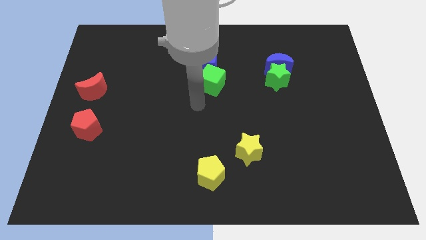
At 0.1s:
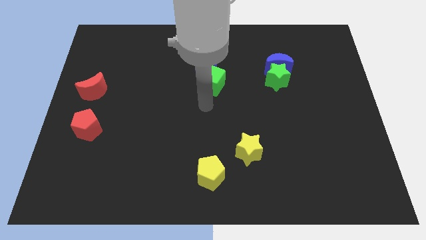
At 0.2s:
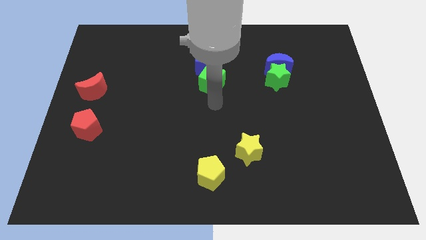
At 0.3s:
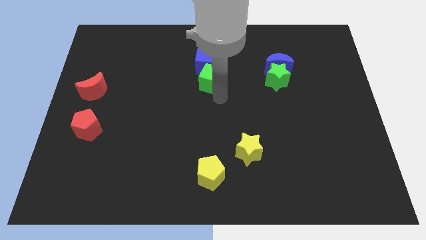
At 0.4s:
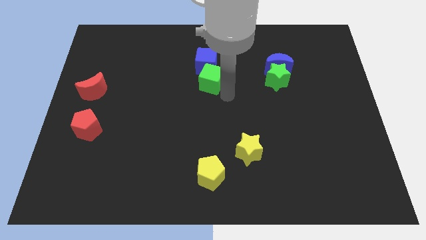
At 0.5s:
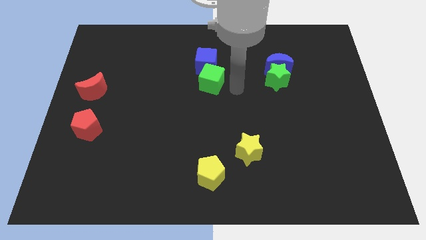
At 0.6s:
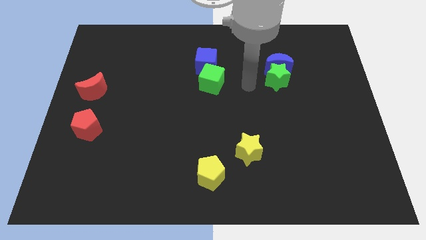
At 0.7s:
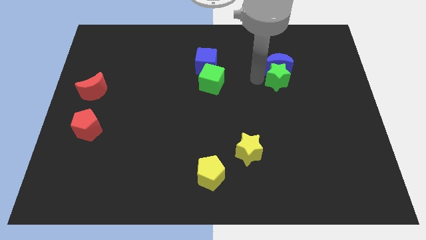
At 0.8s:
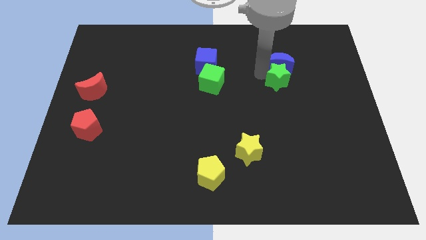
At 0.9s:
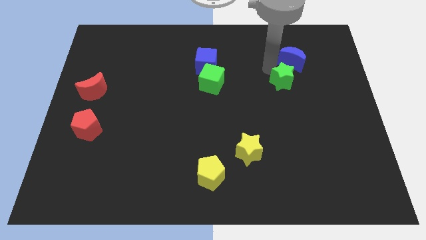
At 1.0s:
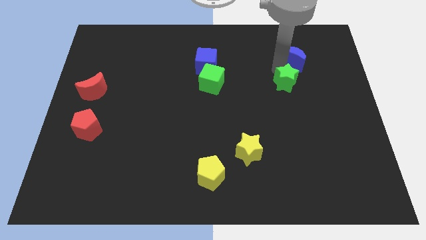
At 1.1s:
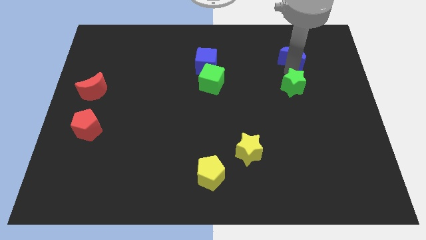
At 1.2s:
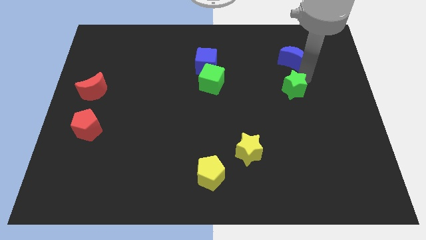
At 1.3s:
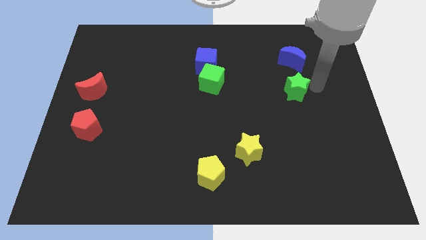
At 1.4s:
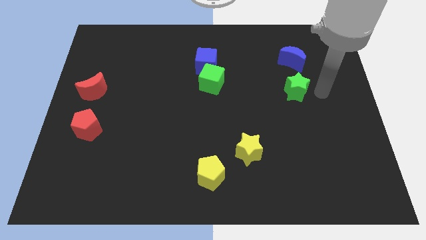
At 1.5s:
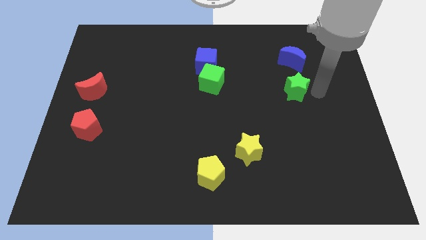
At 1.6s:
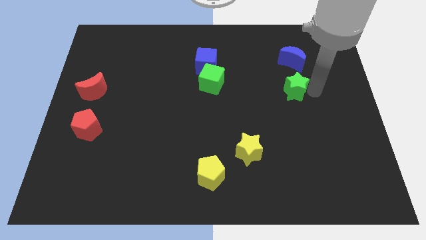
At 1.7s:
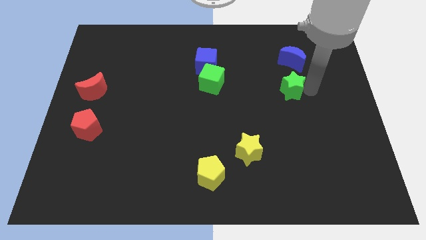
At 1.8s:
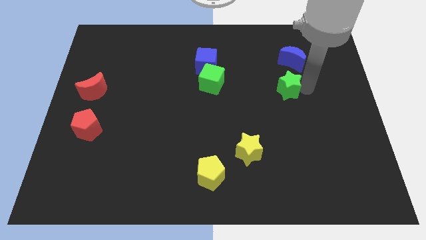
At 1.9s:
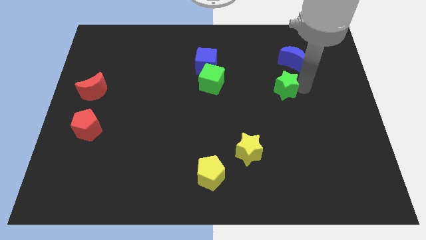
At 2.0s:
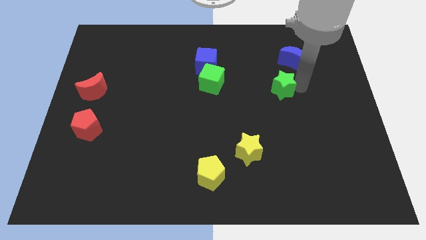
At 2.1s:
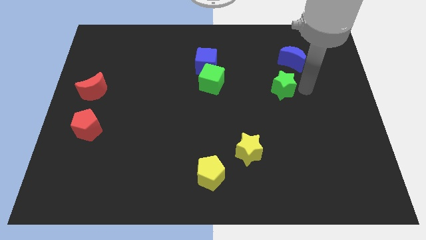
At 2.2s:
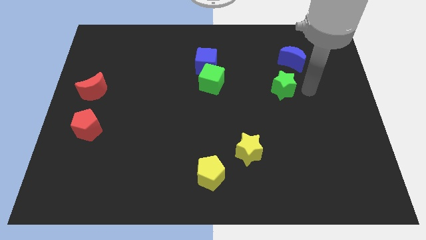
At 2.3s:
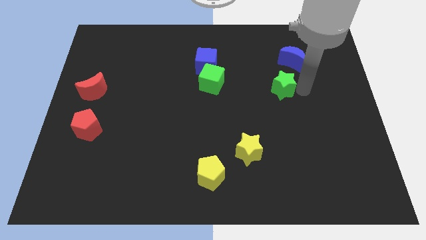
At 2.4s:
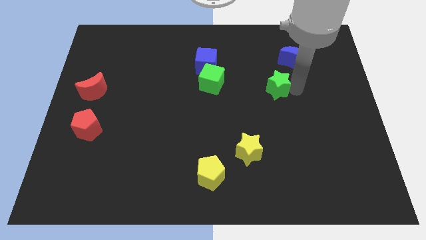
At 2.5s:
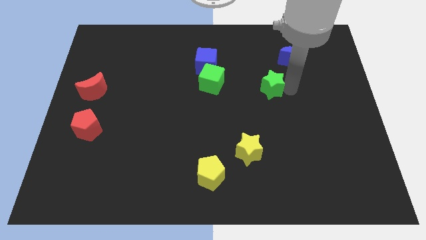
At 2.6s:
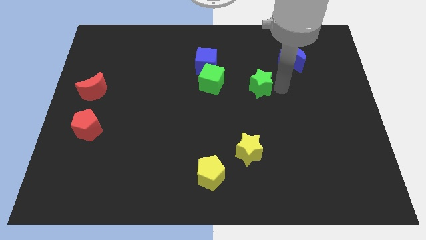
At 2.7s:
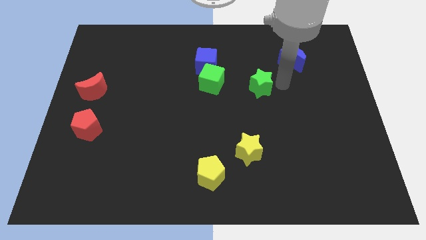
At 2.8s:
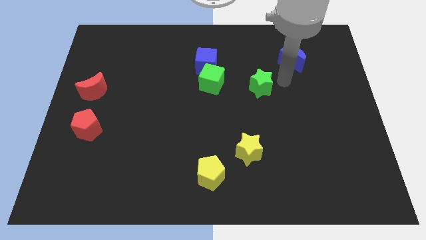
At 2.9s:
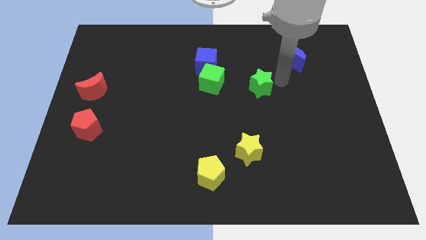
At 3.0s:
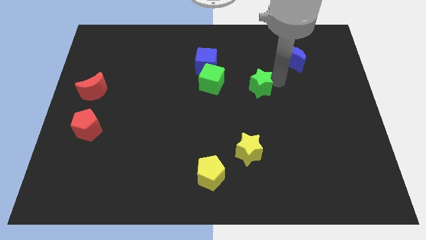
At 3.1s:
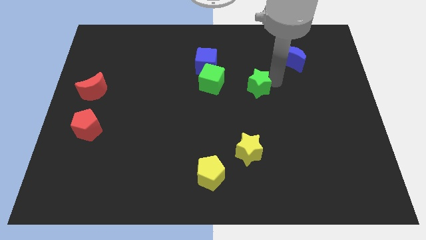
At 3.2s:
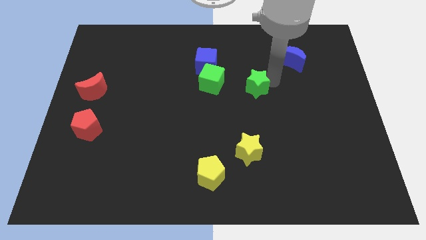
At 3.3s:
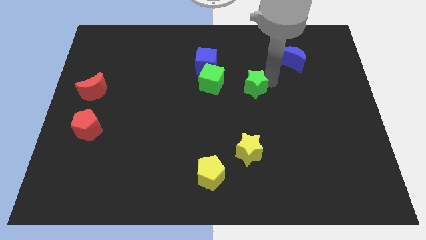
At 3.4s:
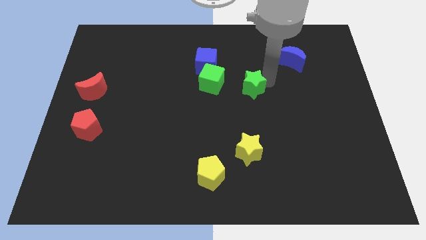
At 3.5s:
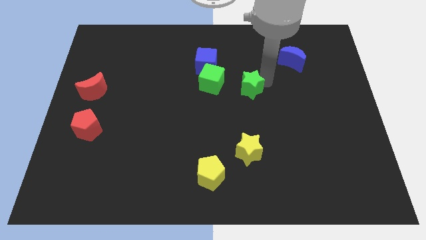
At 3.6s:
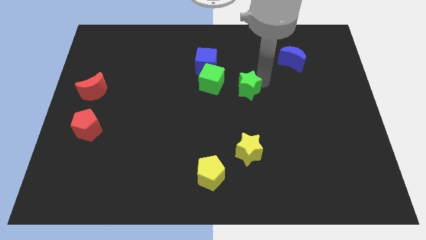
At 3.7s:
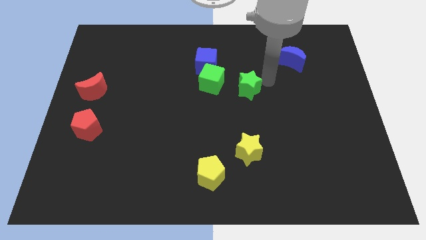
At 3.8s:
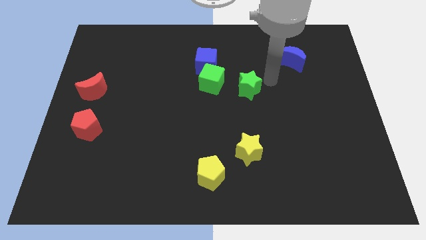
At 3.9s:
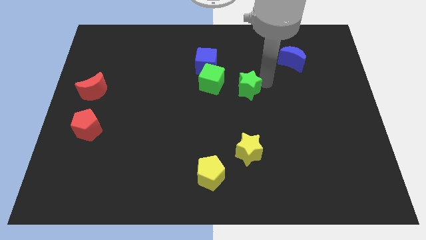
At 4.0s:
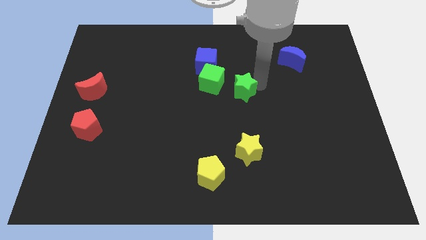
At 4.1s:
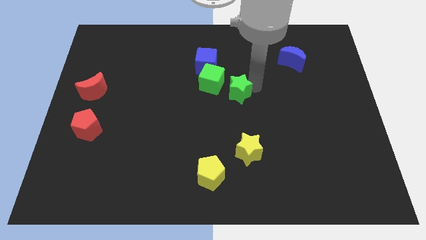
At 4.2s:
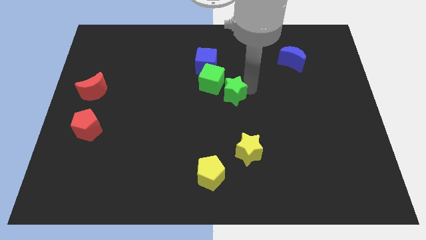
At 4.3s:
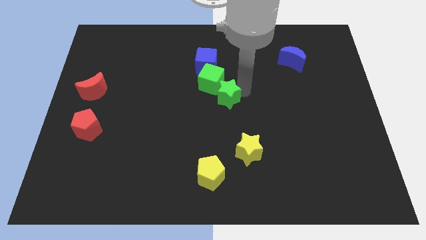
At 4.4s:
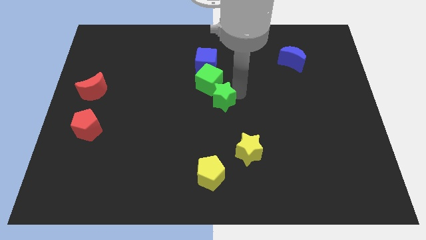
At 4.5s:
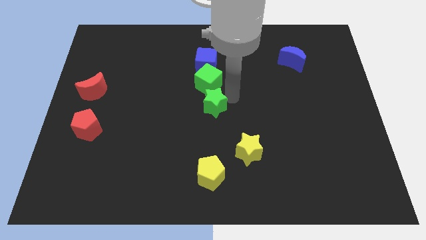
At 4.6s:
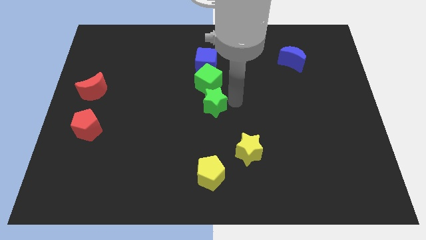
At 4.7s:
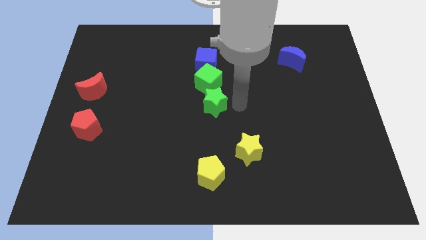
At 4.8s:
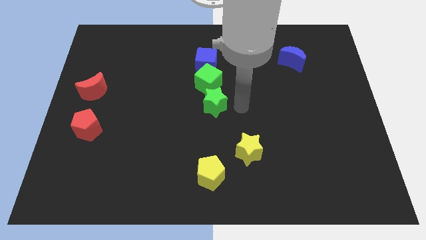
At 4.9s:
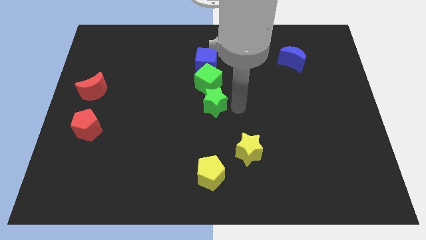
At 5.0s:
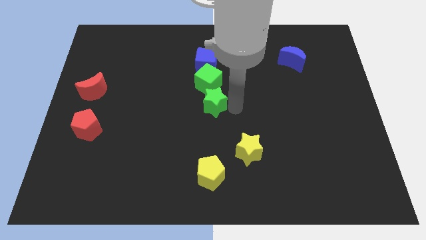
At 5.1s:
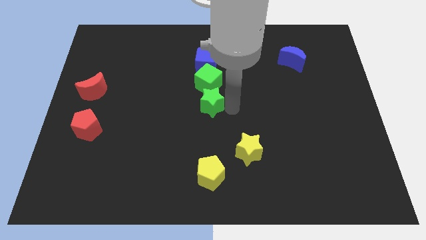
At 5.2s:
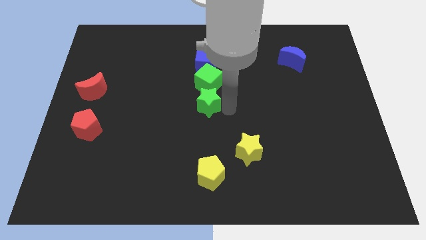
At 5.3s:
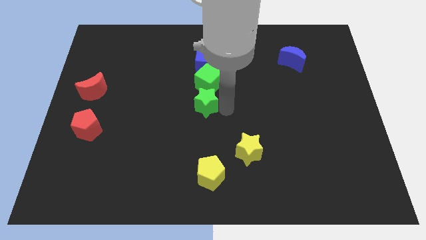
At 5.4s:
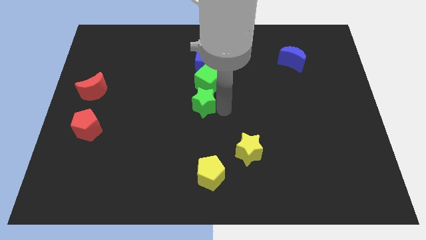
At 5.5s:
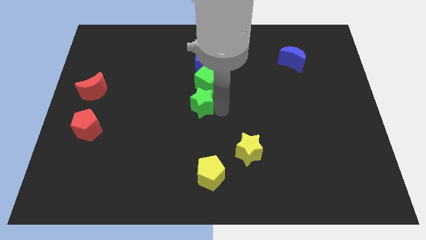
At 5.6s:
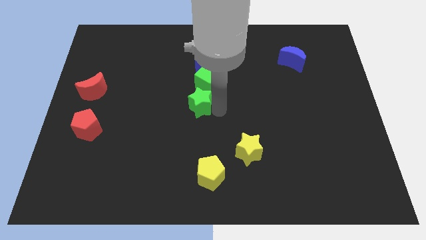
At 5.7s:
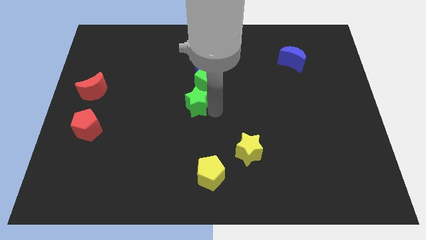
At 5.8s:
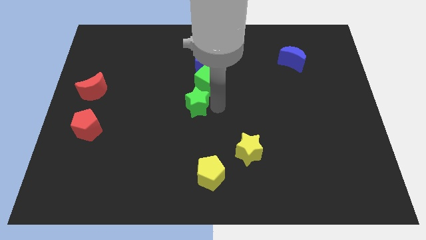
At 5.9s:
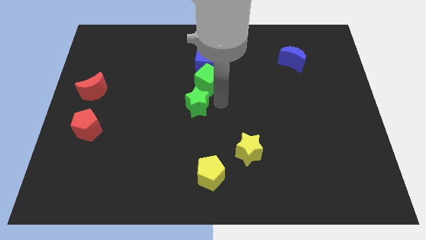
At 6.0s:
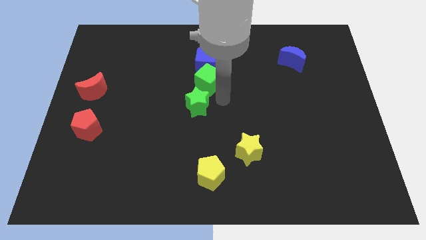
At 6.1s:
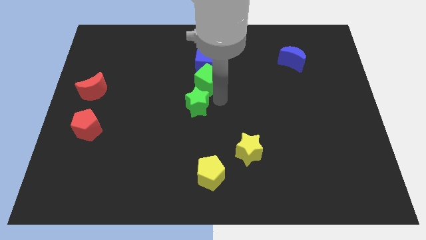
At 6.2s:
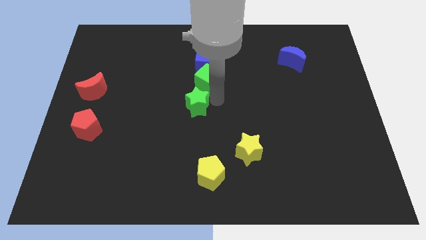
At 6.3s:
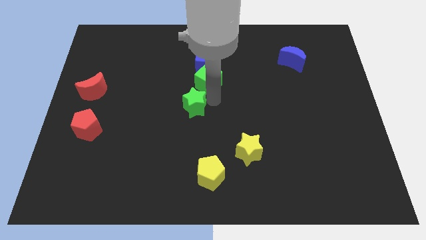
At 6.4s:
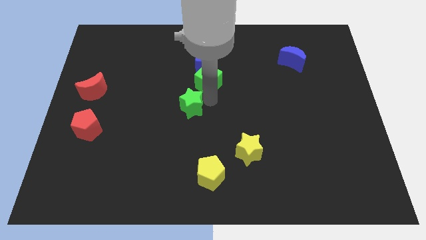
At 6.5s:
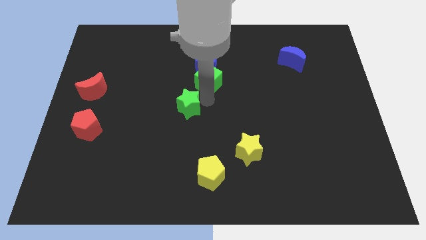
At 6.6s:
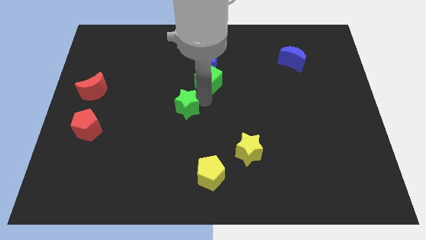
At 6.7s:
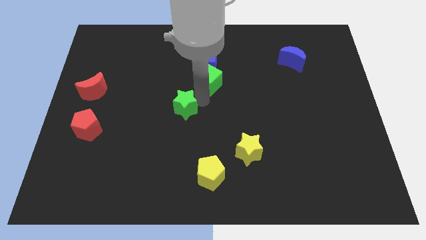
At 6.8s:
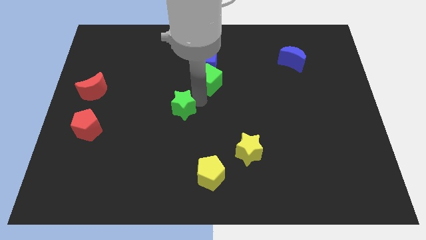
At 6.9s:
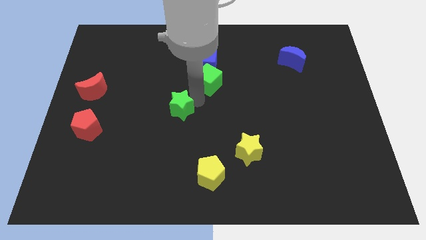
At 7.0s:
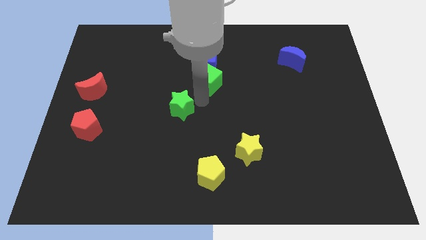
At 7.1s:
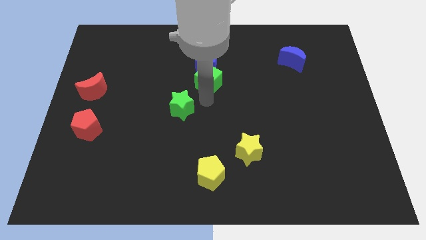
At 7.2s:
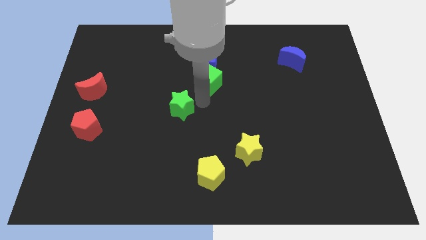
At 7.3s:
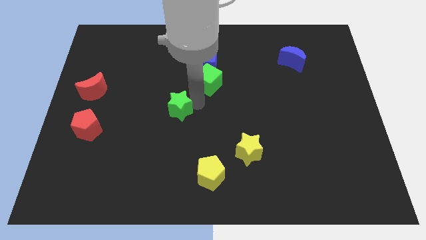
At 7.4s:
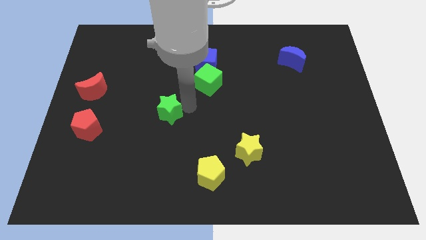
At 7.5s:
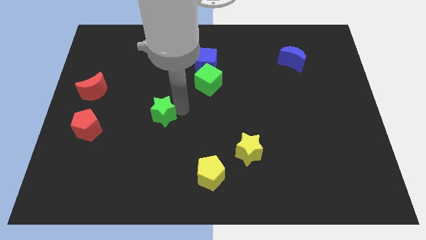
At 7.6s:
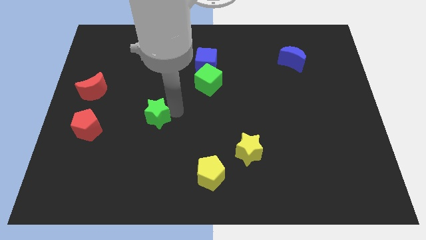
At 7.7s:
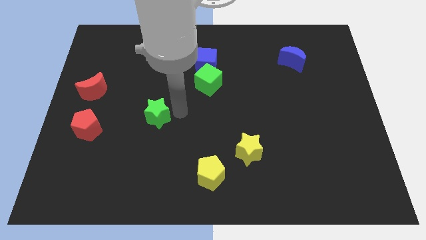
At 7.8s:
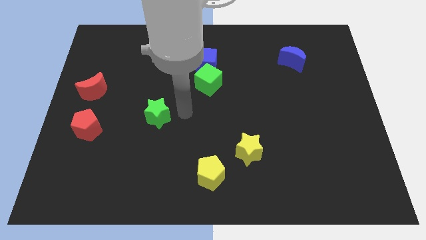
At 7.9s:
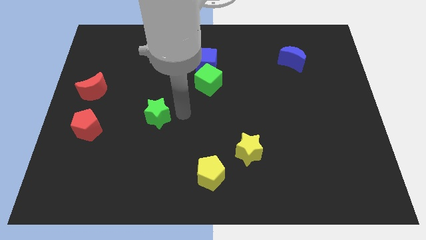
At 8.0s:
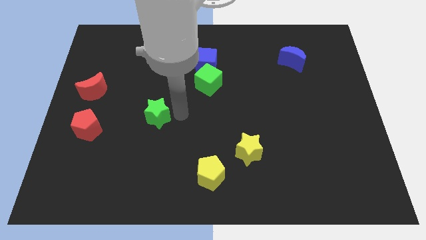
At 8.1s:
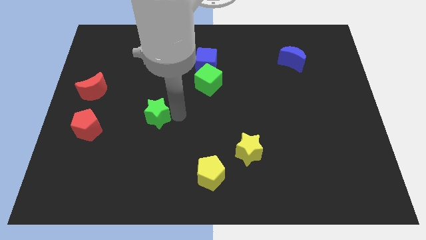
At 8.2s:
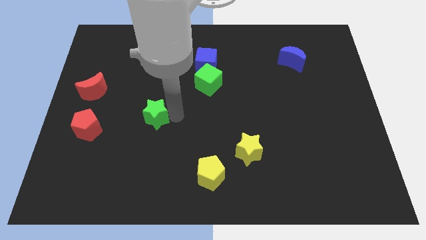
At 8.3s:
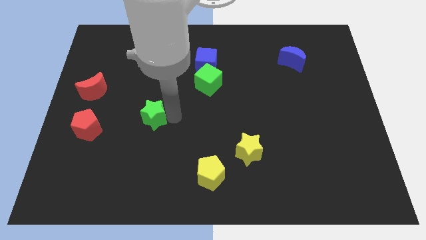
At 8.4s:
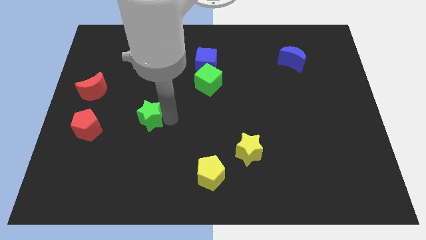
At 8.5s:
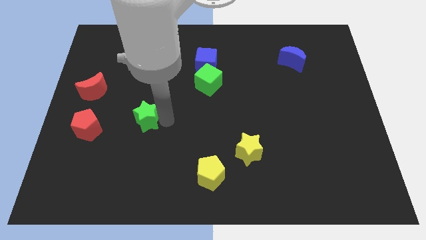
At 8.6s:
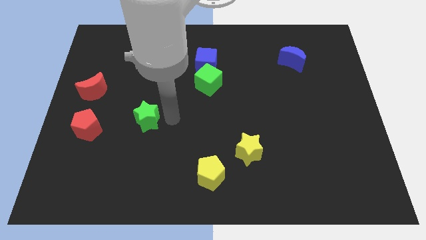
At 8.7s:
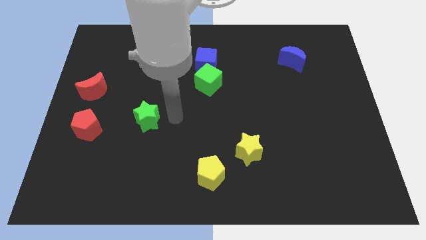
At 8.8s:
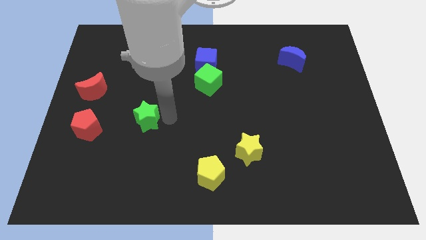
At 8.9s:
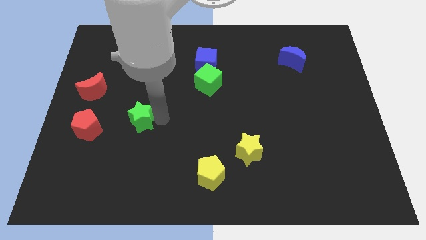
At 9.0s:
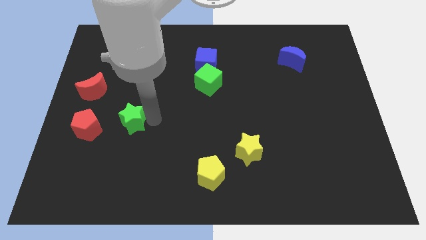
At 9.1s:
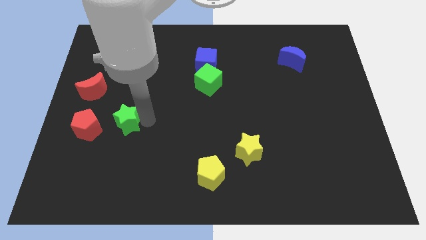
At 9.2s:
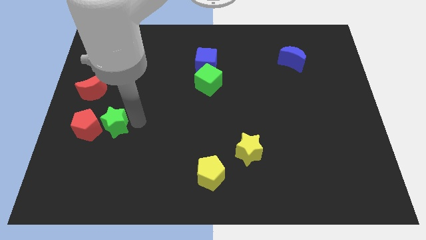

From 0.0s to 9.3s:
put the green star to the red pentagon
